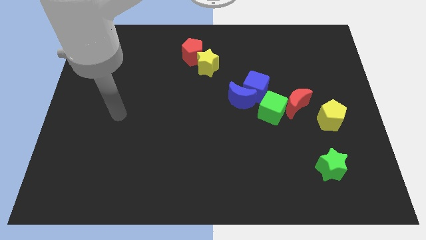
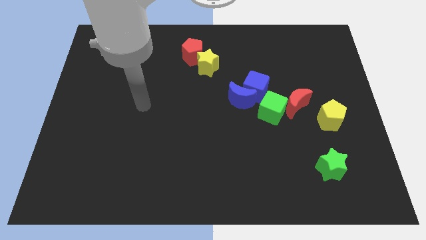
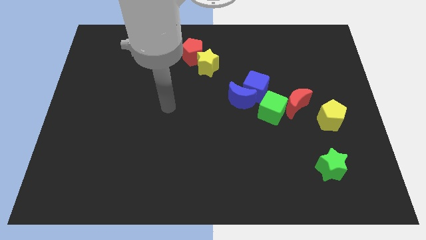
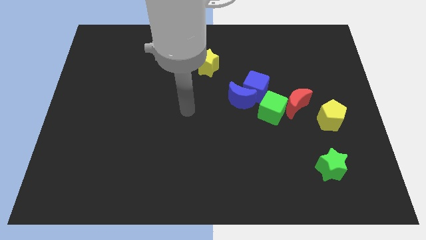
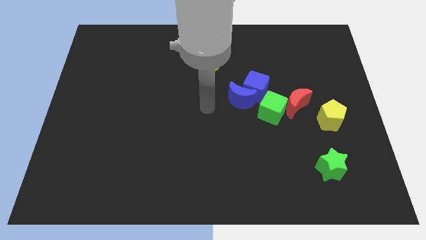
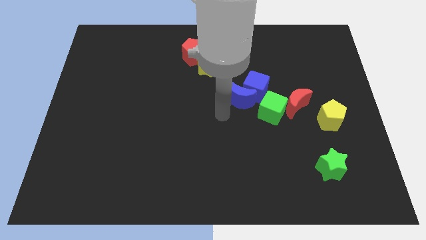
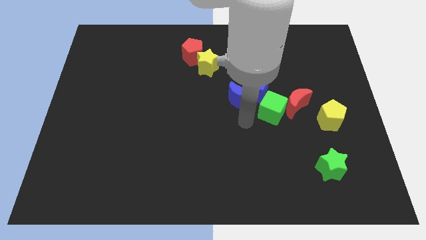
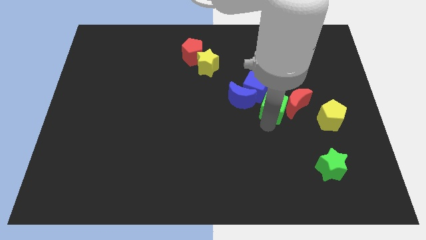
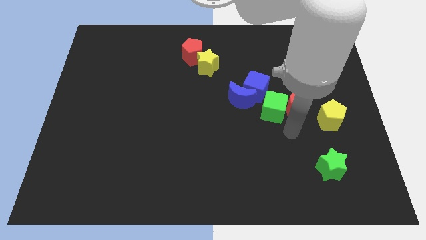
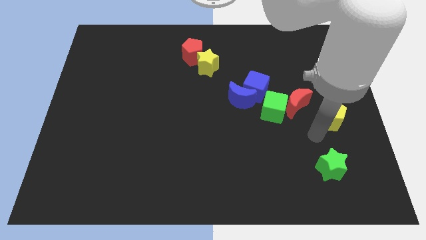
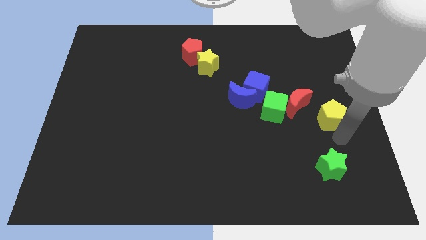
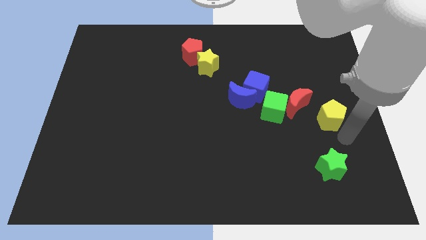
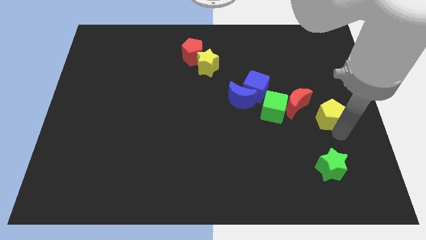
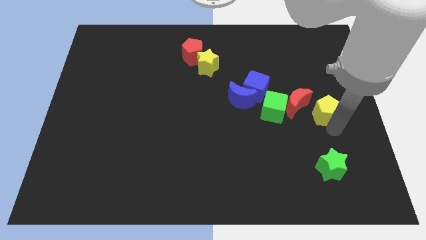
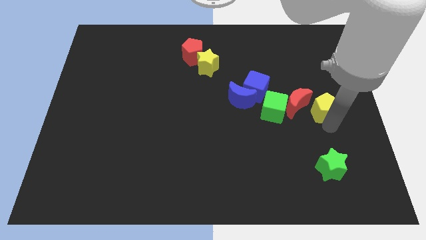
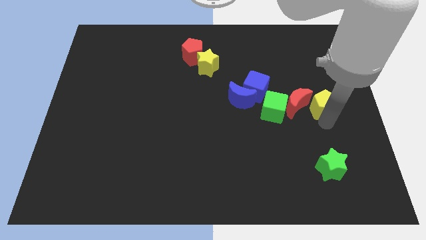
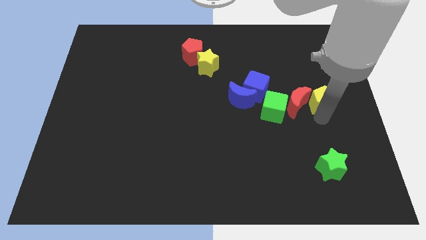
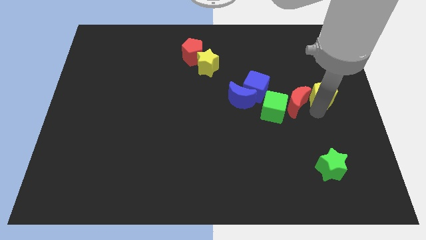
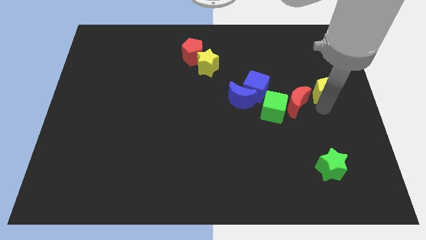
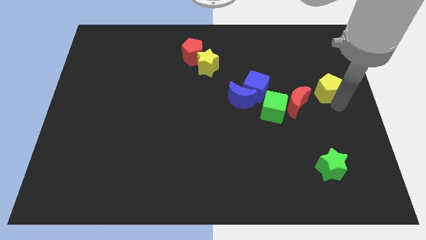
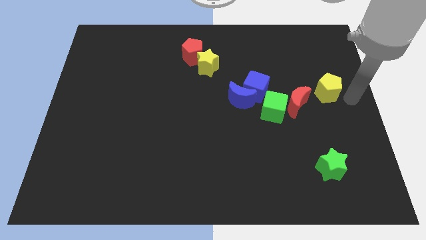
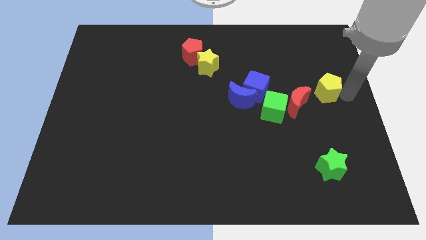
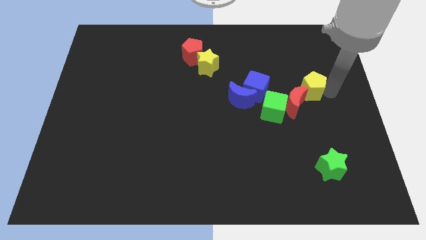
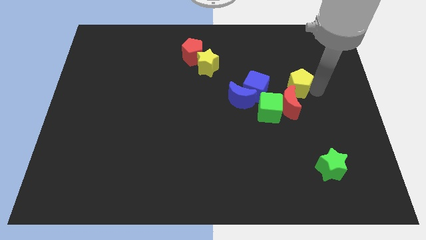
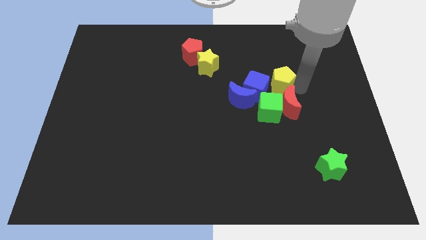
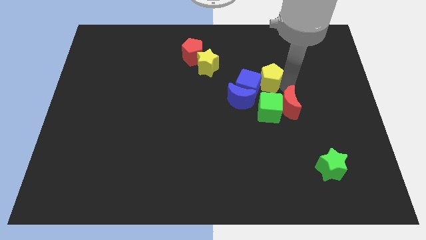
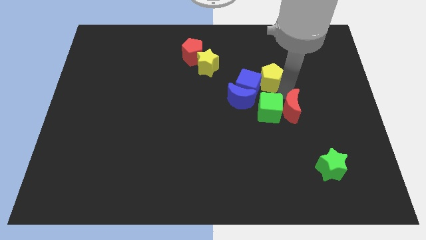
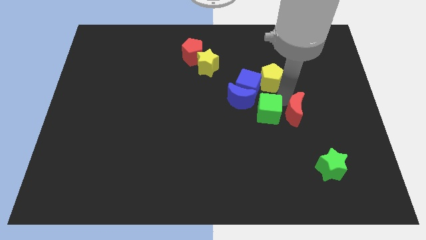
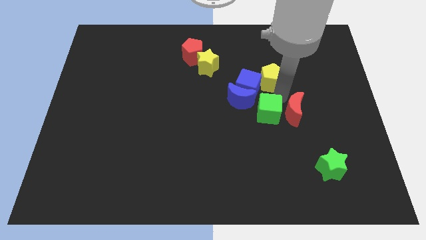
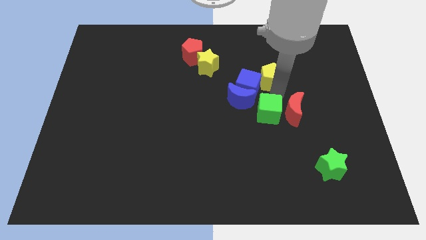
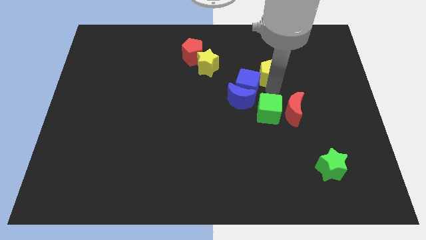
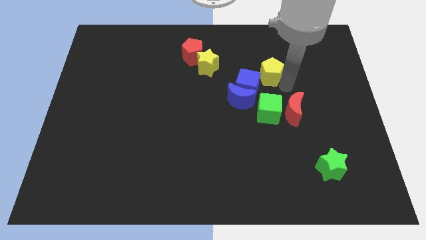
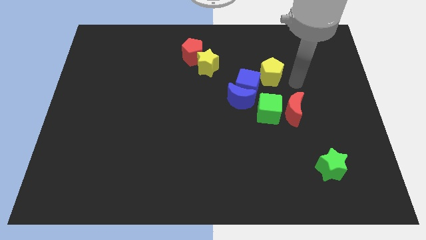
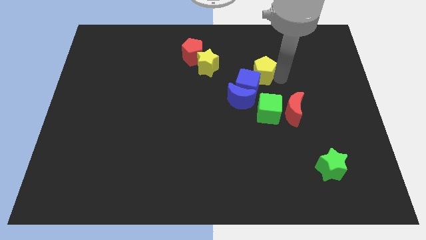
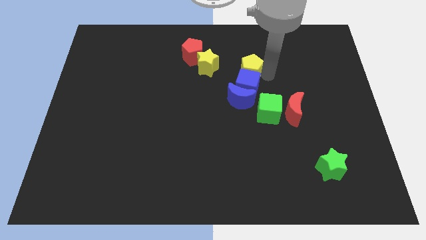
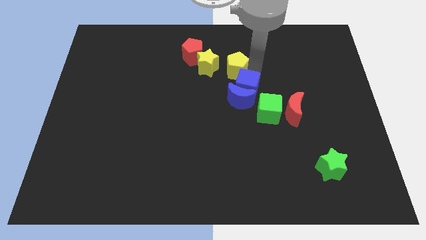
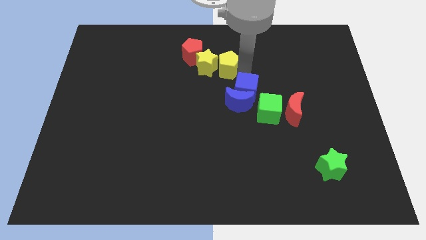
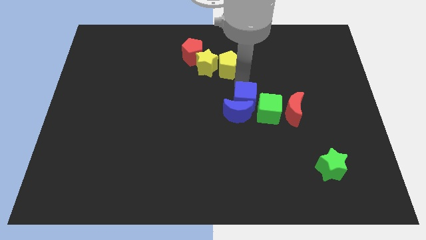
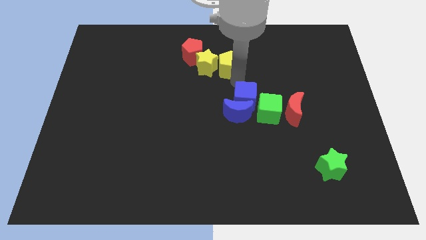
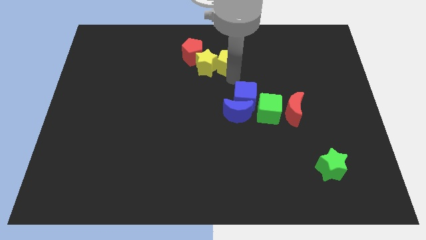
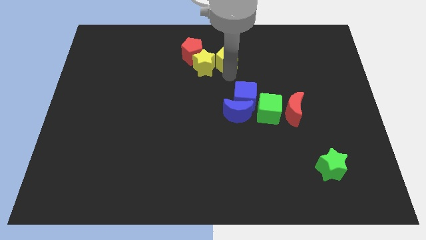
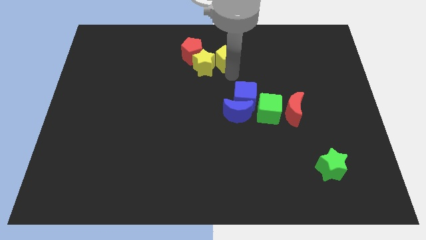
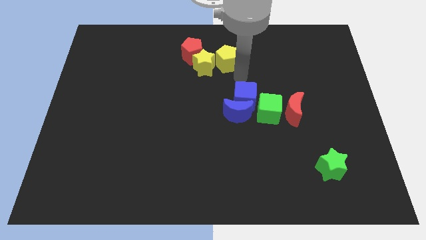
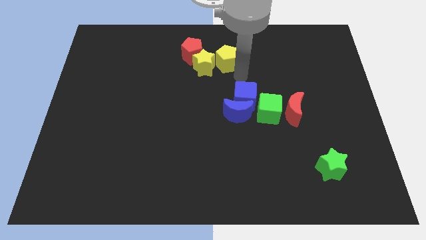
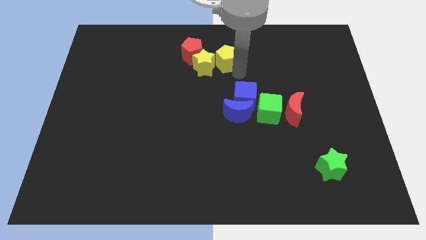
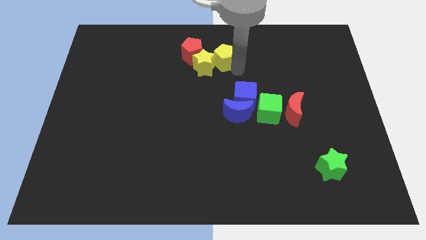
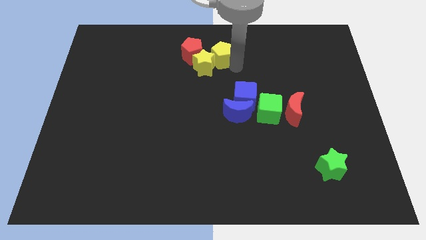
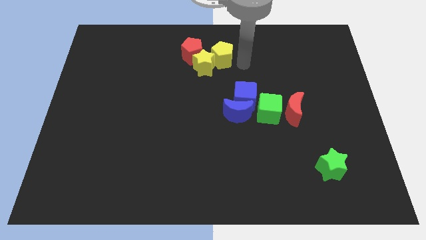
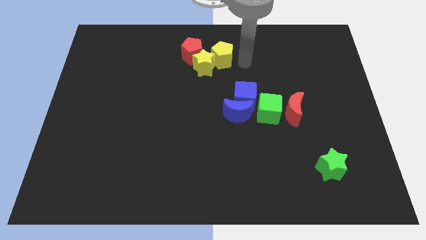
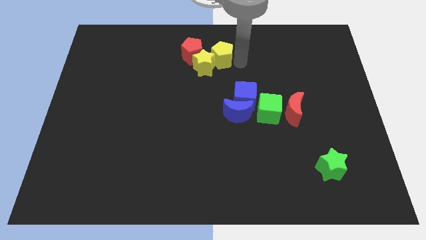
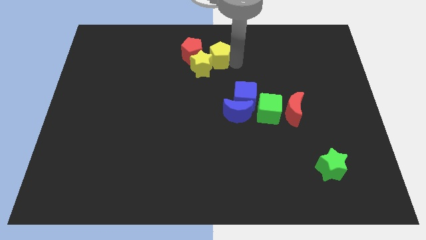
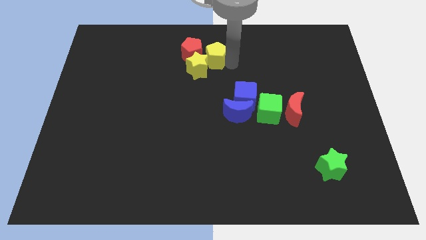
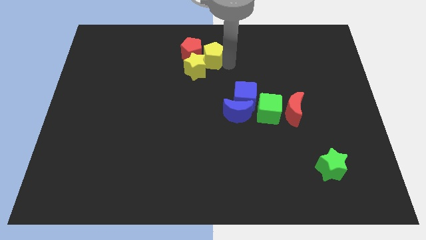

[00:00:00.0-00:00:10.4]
put the yellow pentagon to the red pentagon

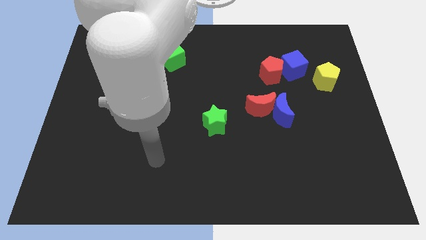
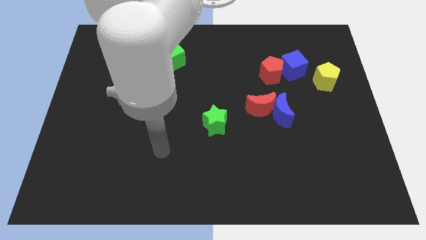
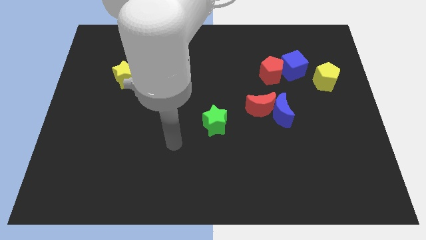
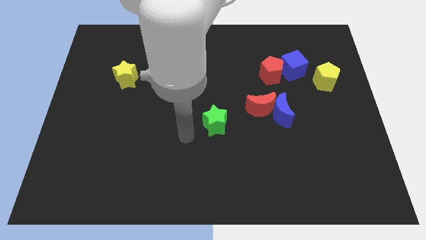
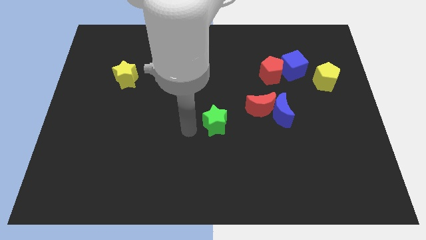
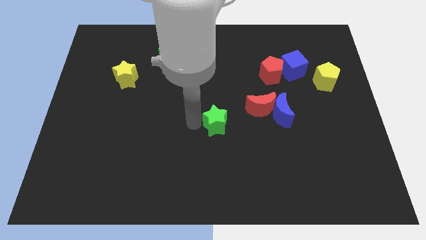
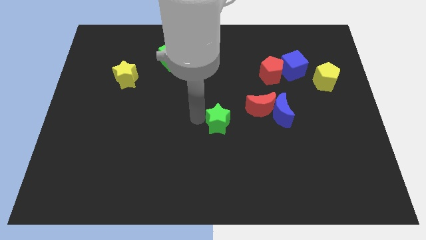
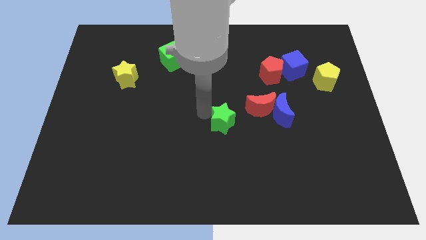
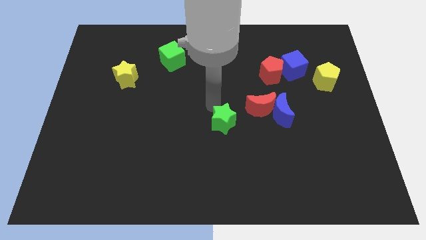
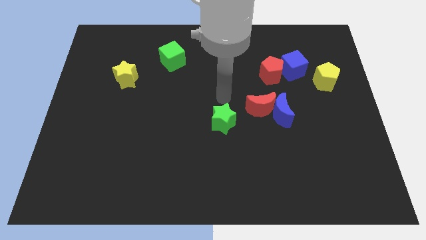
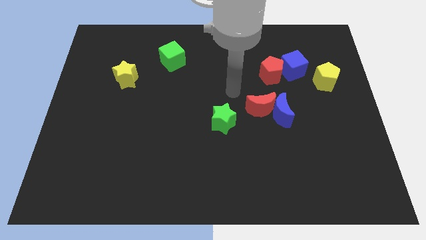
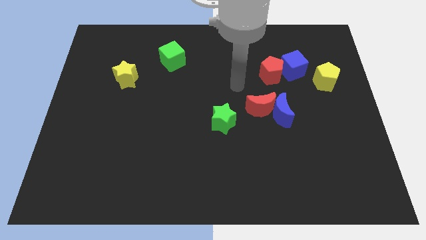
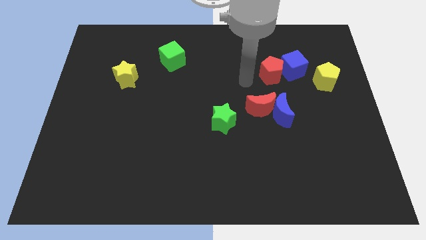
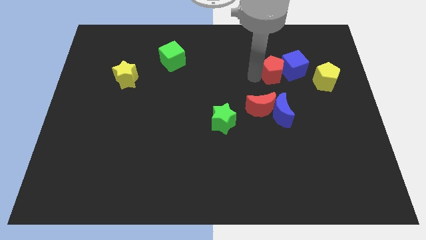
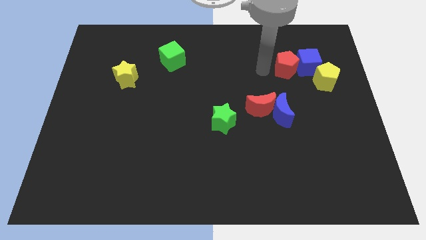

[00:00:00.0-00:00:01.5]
push the blue cube close to the yellow pentagon
